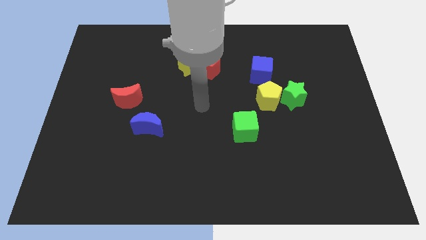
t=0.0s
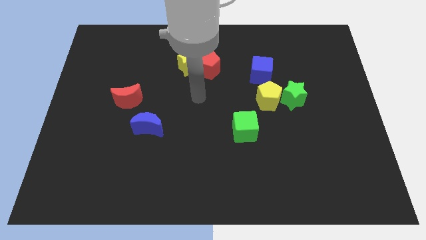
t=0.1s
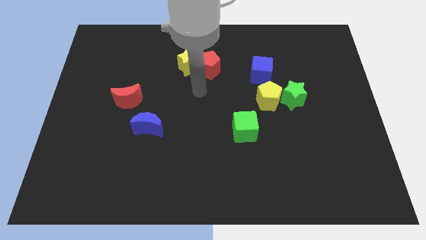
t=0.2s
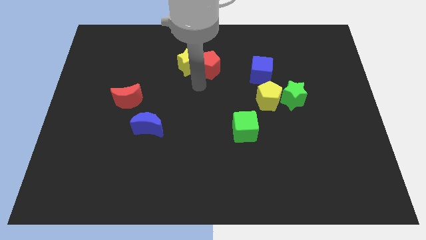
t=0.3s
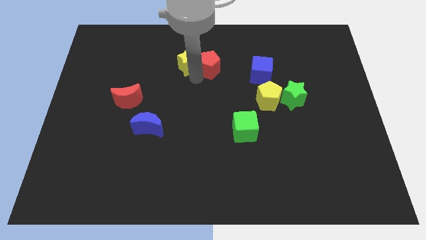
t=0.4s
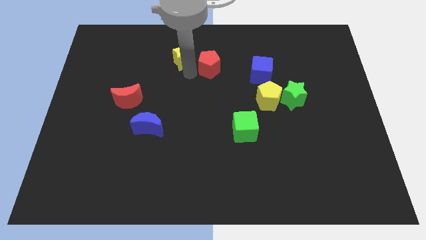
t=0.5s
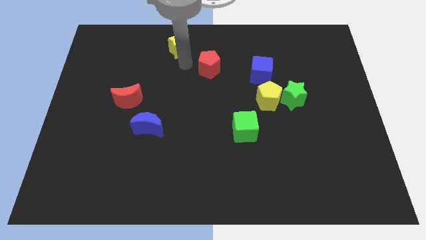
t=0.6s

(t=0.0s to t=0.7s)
pull the red pentagon apart from the yellow star

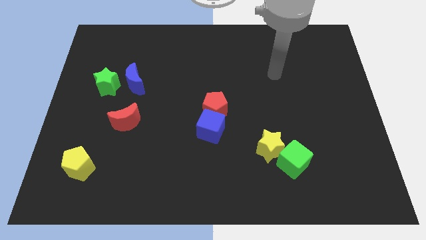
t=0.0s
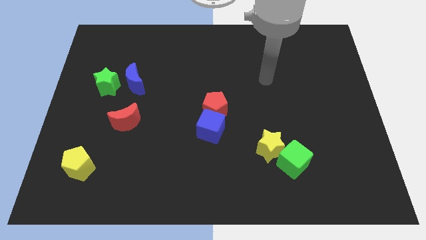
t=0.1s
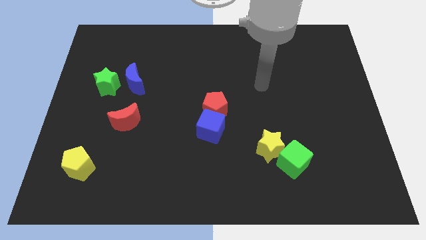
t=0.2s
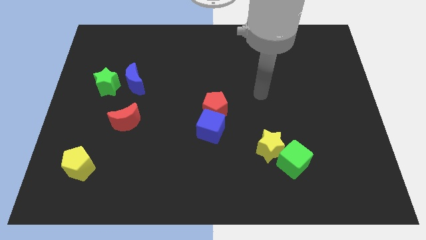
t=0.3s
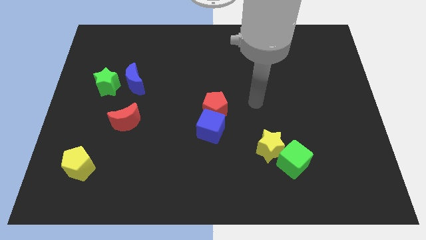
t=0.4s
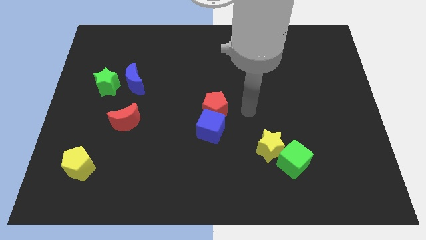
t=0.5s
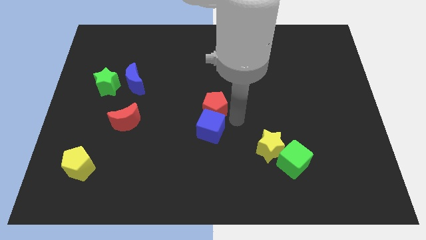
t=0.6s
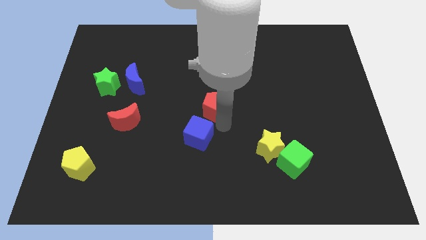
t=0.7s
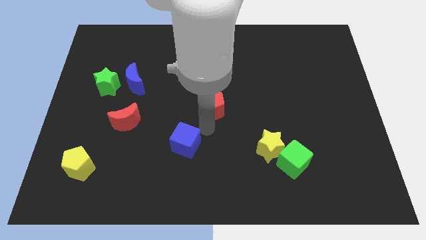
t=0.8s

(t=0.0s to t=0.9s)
pull the red pentagon apart from the blue cube

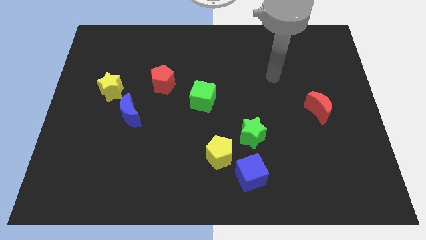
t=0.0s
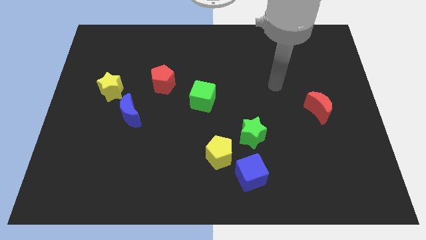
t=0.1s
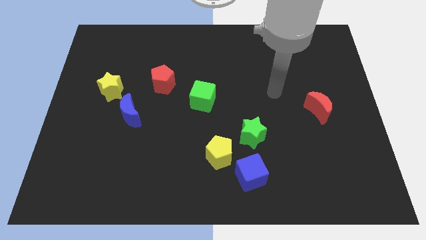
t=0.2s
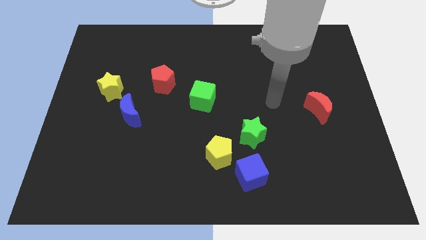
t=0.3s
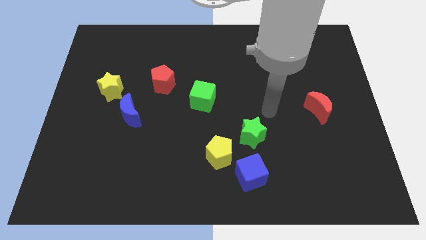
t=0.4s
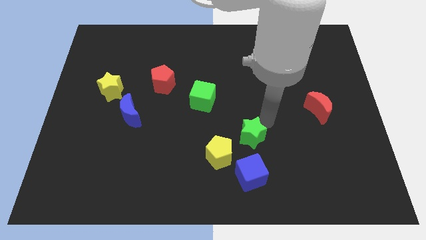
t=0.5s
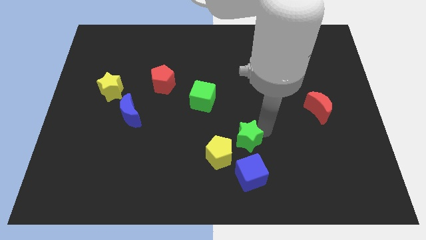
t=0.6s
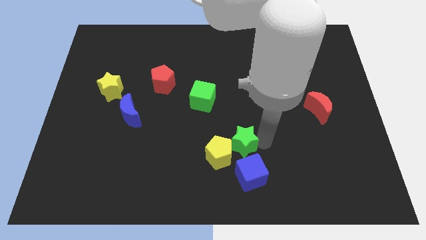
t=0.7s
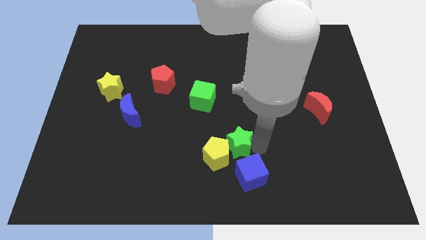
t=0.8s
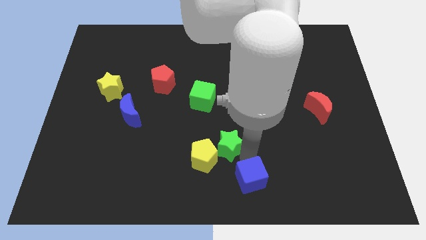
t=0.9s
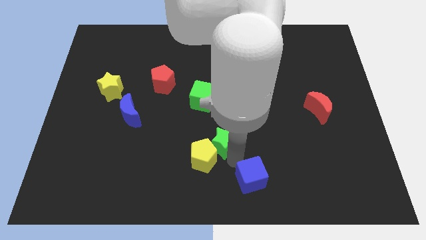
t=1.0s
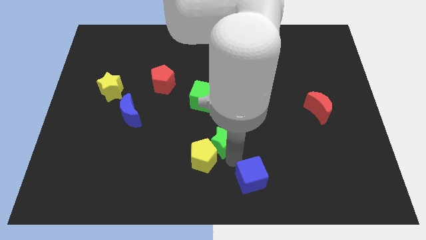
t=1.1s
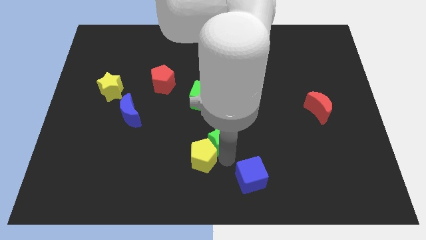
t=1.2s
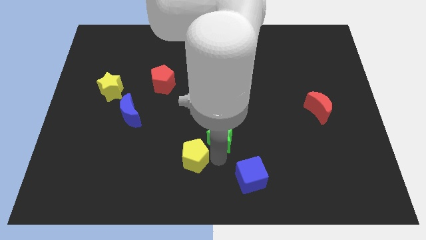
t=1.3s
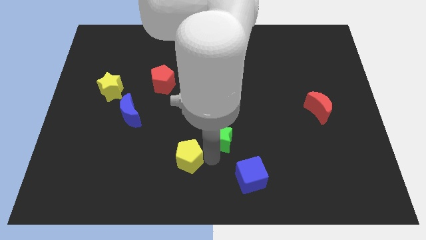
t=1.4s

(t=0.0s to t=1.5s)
separate the yellow pentagon from the blue cube and green star

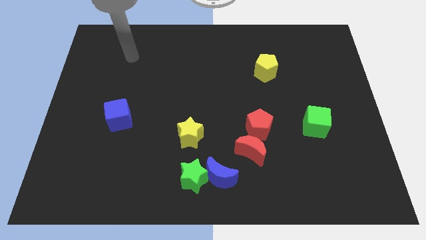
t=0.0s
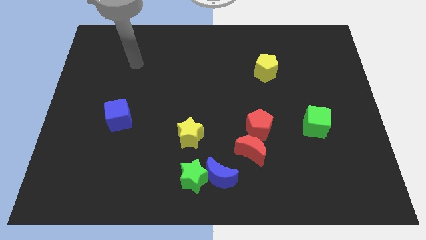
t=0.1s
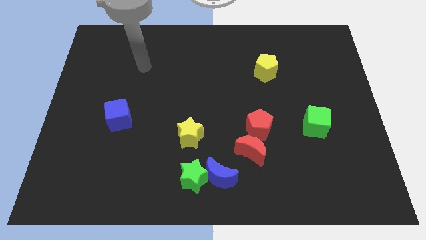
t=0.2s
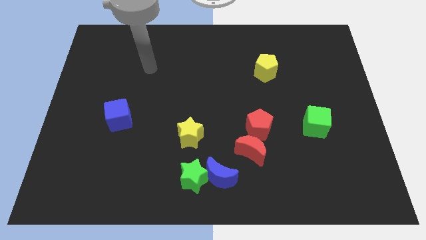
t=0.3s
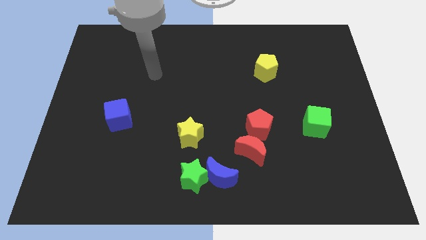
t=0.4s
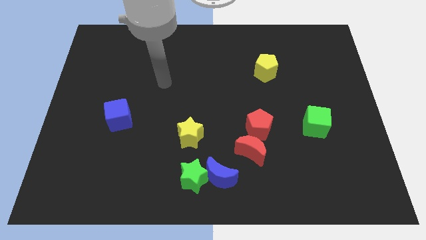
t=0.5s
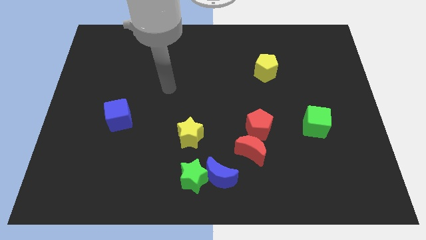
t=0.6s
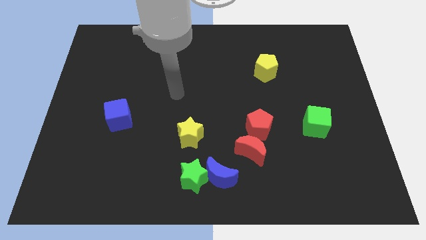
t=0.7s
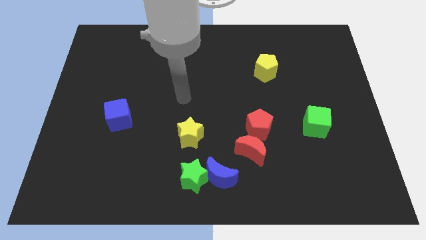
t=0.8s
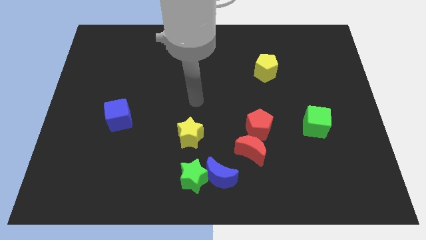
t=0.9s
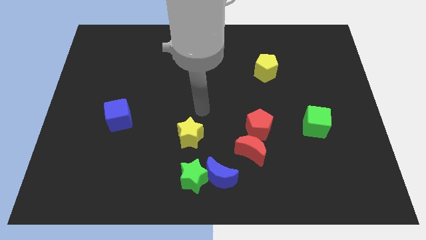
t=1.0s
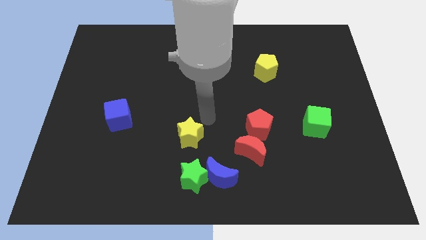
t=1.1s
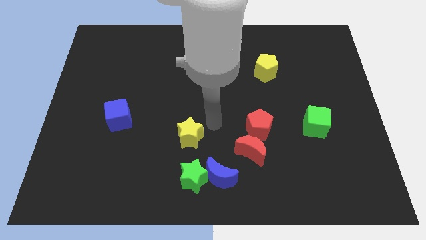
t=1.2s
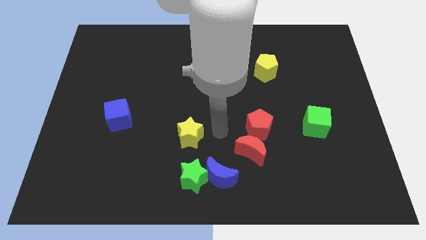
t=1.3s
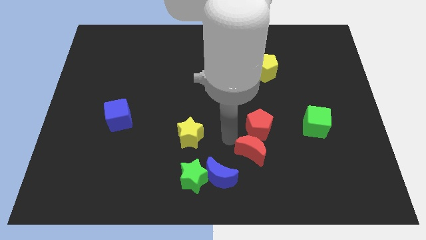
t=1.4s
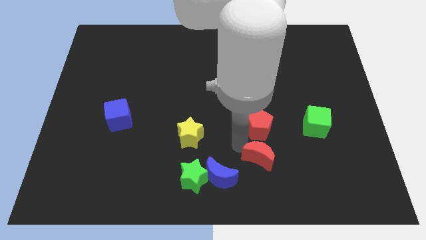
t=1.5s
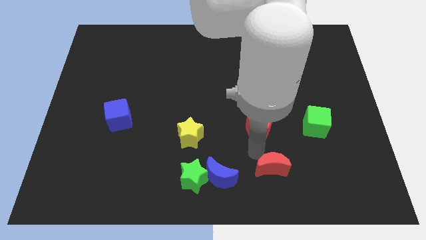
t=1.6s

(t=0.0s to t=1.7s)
pull the red pentagon apart from the red moon

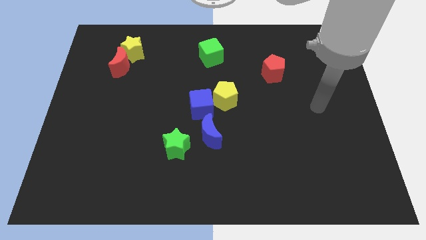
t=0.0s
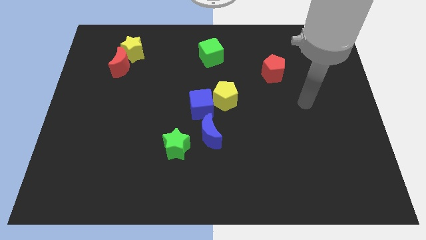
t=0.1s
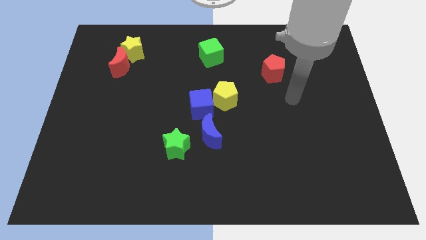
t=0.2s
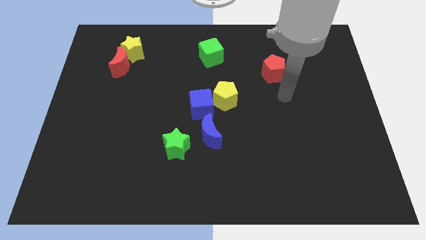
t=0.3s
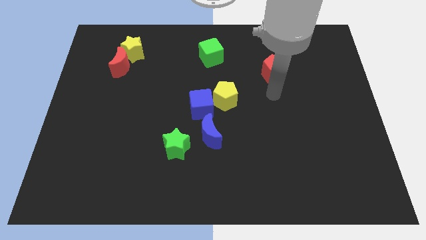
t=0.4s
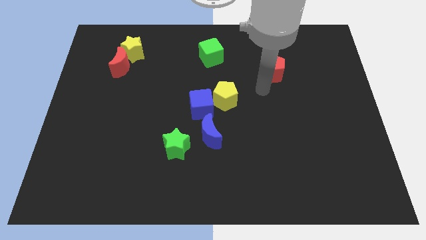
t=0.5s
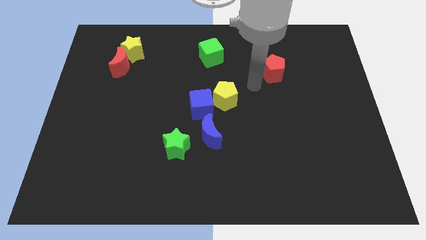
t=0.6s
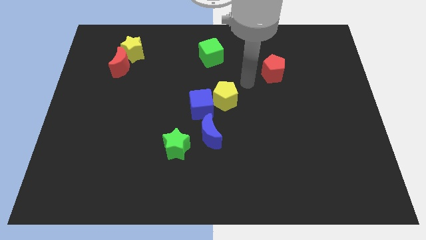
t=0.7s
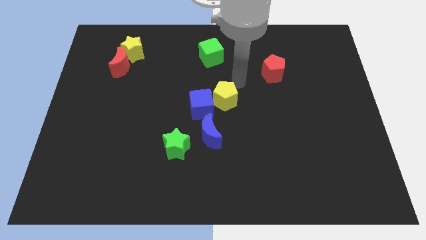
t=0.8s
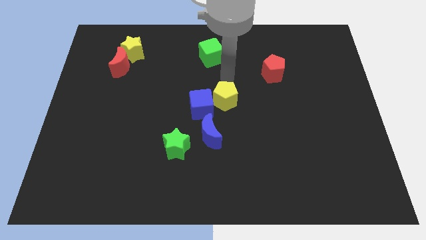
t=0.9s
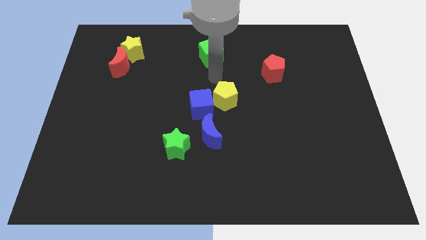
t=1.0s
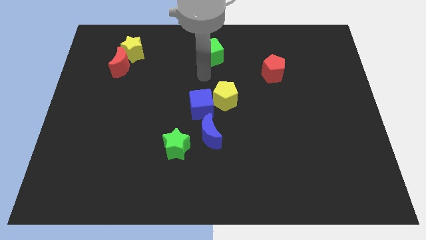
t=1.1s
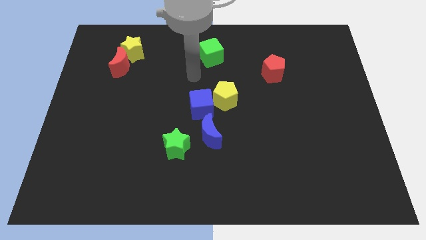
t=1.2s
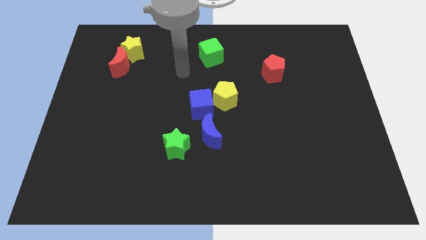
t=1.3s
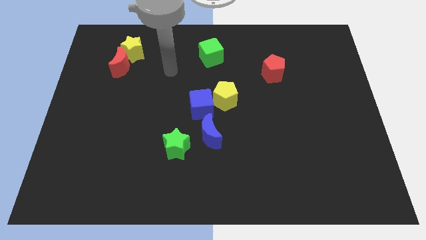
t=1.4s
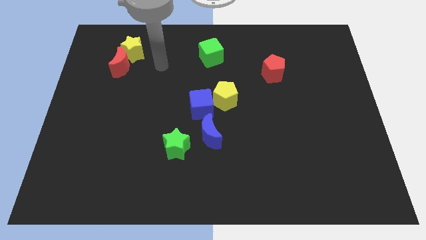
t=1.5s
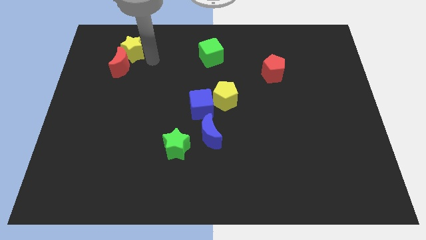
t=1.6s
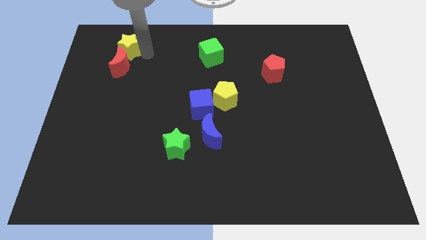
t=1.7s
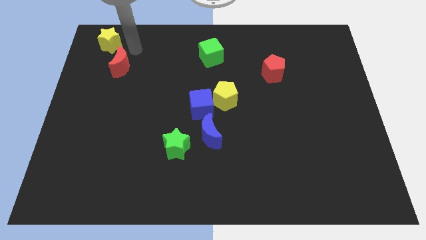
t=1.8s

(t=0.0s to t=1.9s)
move the red moon away from the yellow star

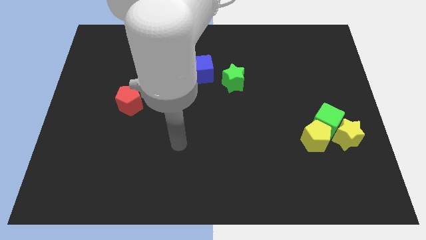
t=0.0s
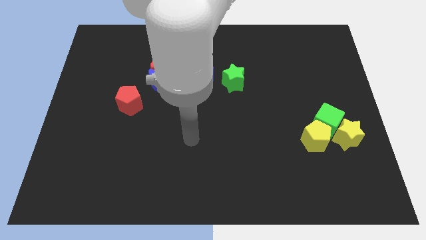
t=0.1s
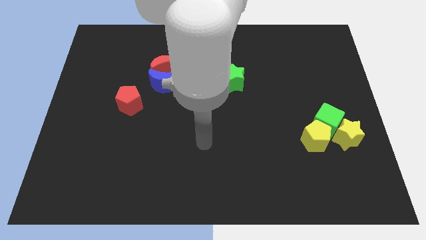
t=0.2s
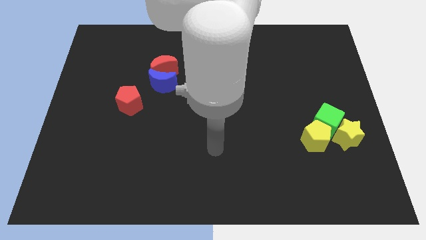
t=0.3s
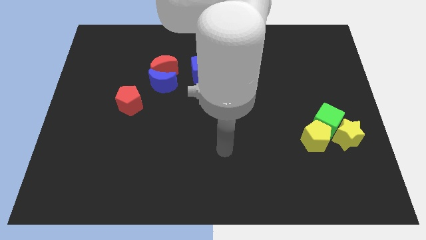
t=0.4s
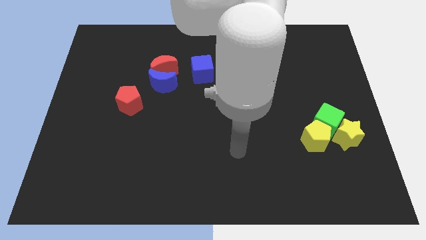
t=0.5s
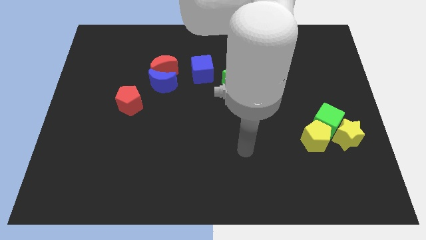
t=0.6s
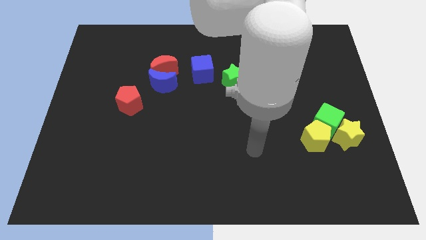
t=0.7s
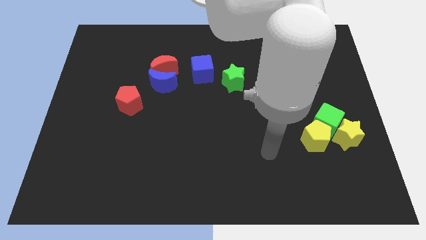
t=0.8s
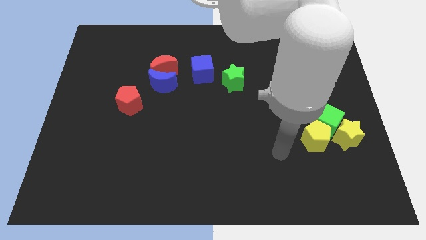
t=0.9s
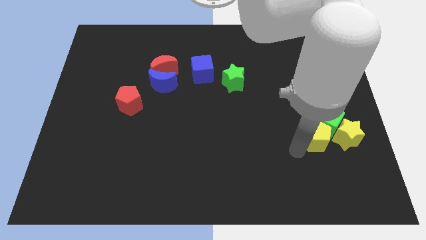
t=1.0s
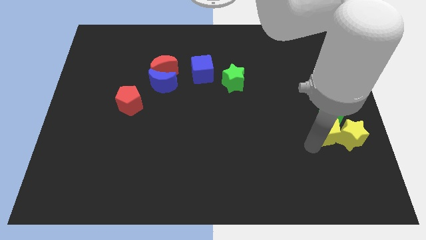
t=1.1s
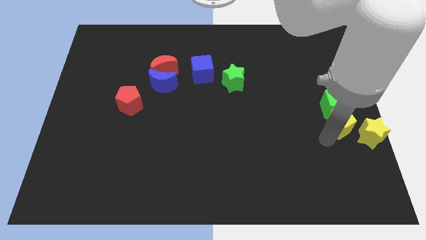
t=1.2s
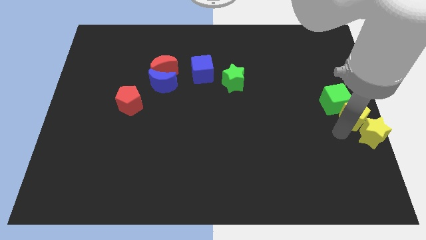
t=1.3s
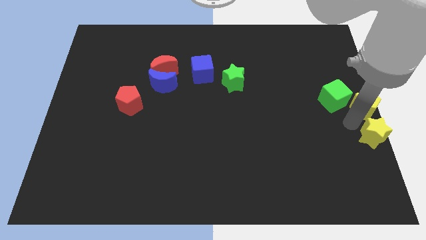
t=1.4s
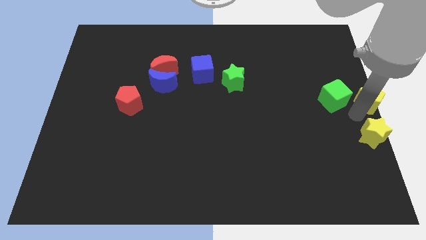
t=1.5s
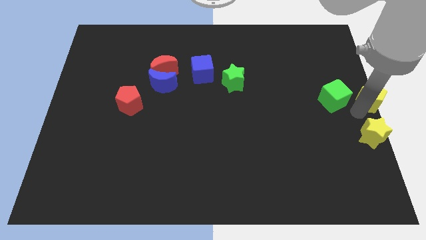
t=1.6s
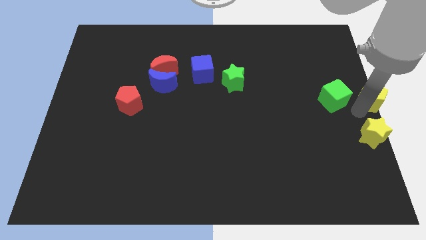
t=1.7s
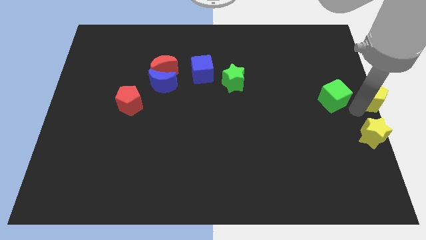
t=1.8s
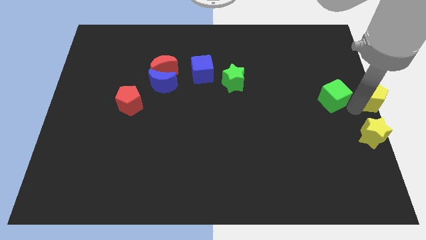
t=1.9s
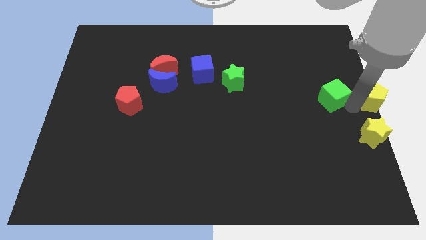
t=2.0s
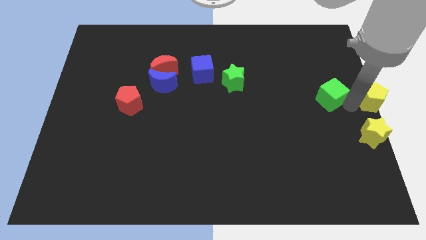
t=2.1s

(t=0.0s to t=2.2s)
pull the green cube apart from the yellow star and yellow pentagon

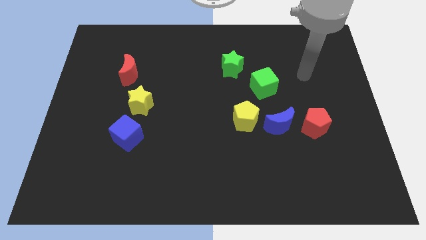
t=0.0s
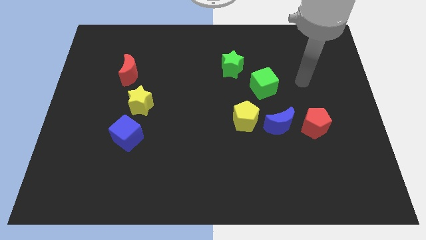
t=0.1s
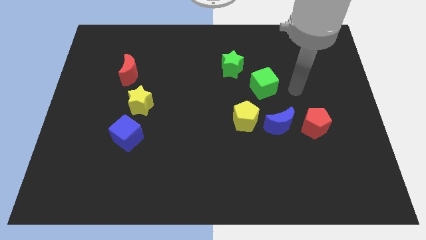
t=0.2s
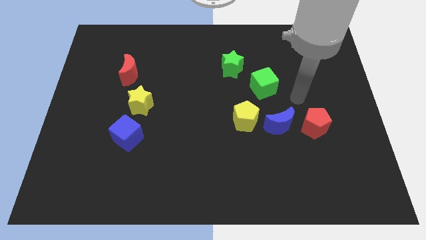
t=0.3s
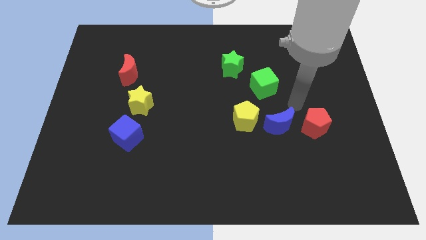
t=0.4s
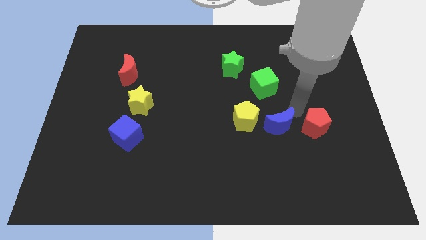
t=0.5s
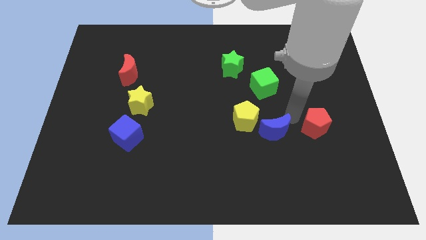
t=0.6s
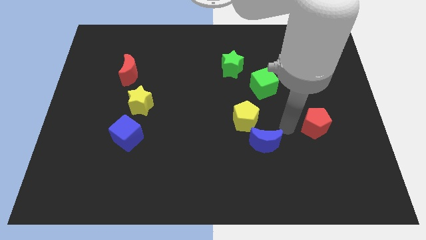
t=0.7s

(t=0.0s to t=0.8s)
separate the red pentagon from the blue moon
